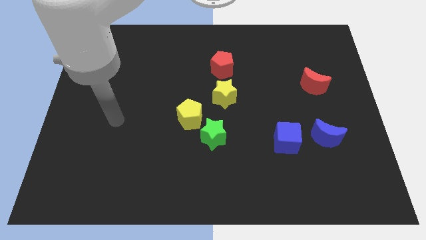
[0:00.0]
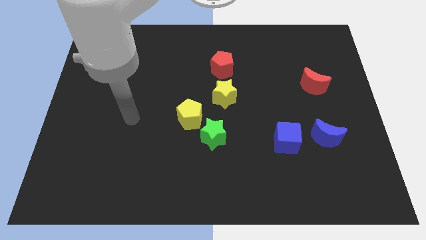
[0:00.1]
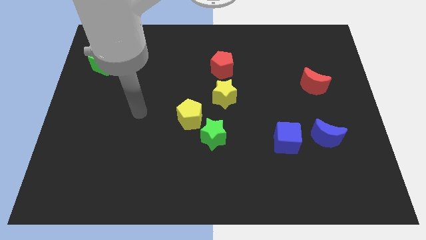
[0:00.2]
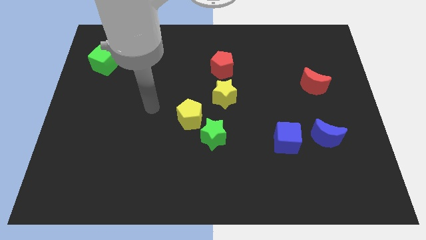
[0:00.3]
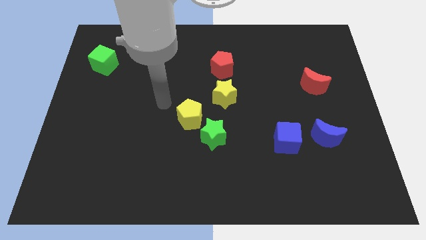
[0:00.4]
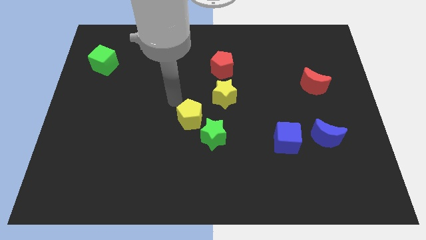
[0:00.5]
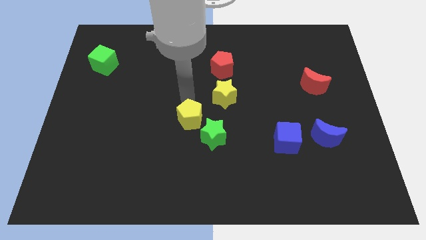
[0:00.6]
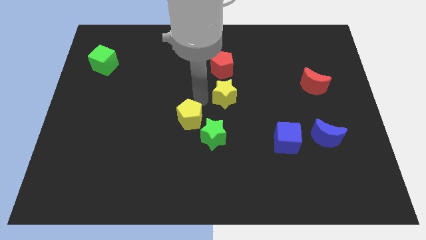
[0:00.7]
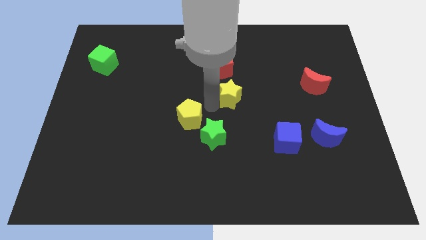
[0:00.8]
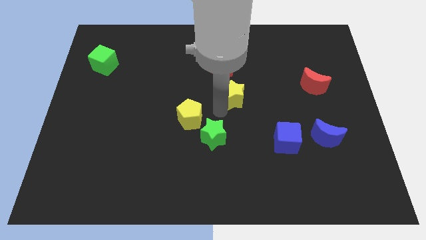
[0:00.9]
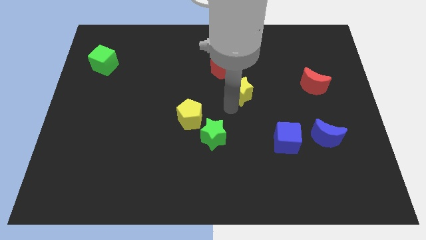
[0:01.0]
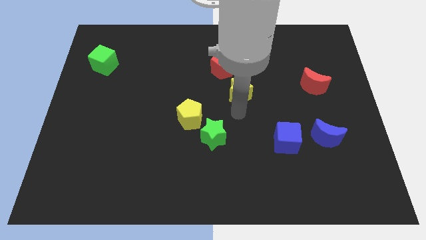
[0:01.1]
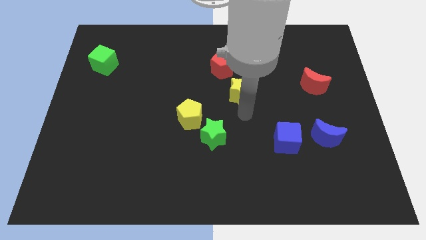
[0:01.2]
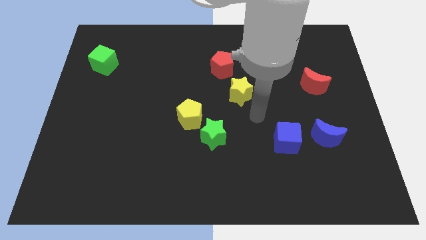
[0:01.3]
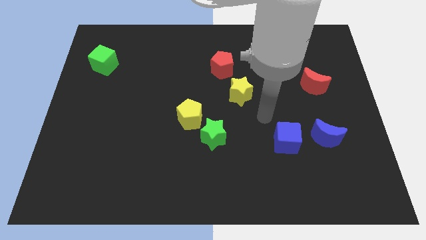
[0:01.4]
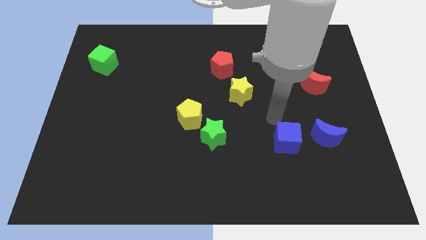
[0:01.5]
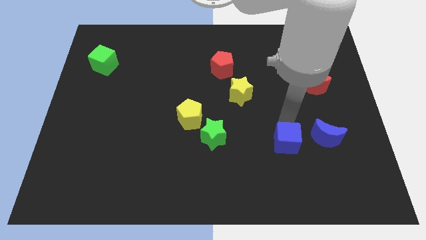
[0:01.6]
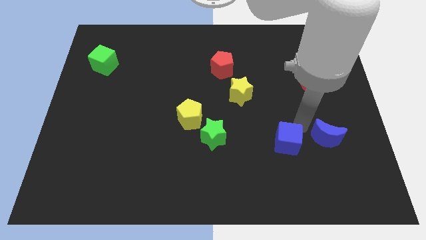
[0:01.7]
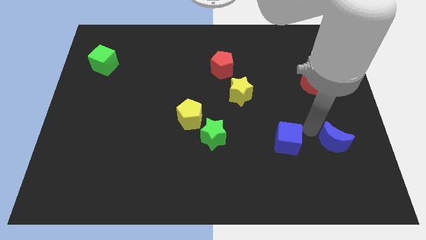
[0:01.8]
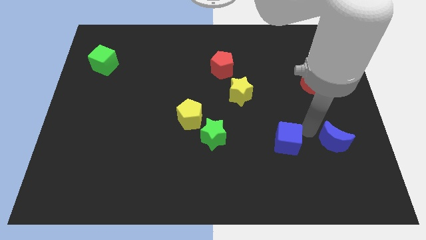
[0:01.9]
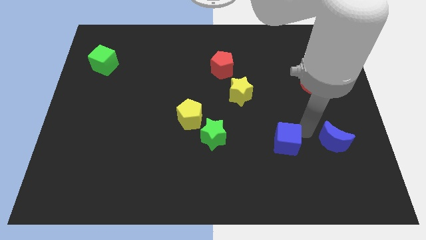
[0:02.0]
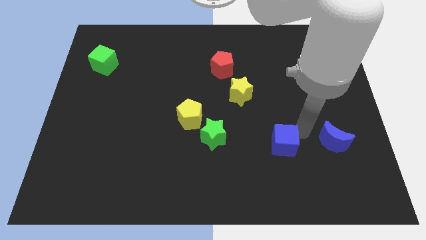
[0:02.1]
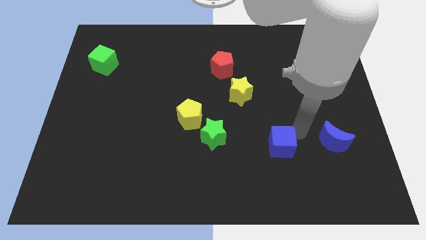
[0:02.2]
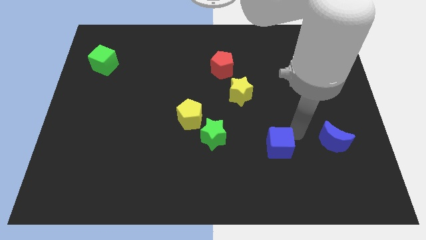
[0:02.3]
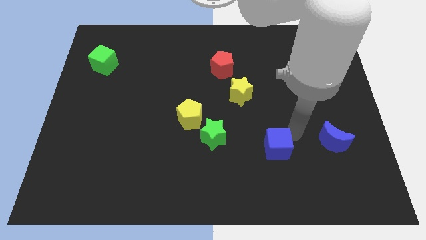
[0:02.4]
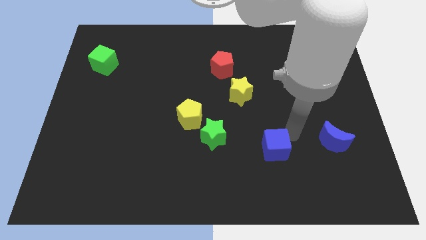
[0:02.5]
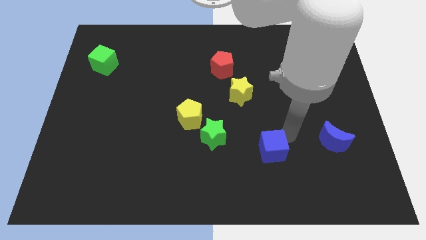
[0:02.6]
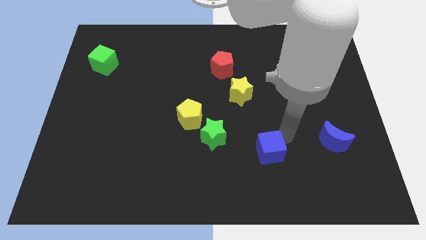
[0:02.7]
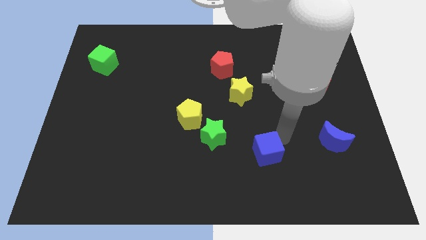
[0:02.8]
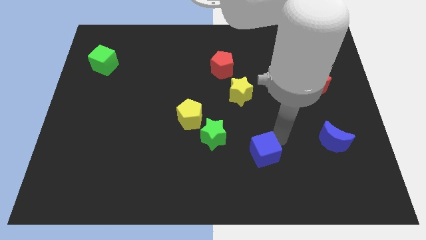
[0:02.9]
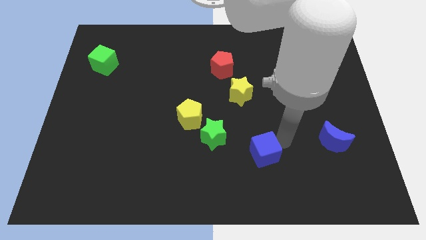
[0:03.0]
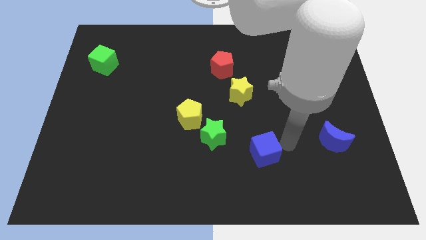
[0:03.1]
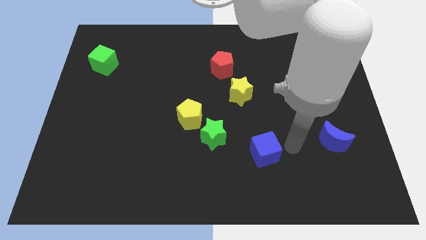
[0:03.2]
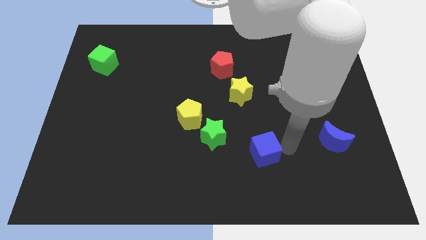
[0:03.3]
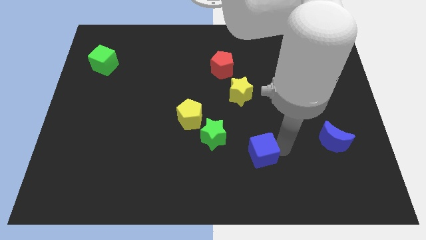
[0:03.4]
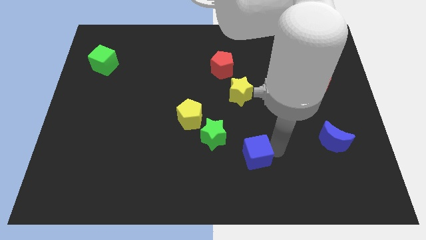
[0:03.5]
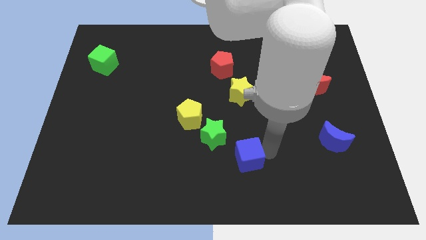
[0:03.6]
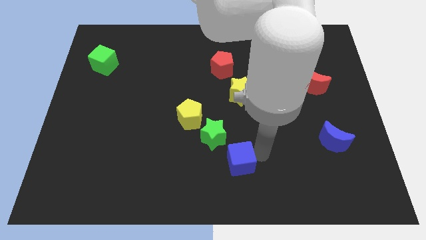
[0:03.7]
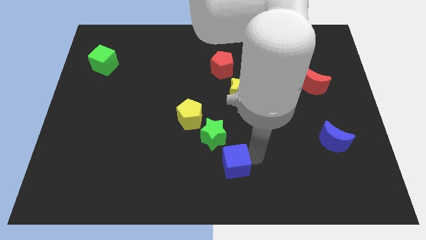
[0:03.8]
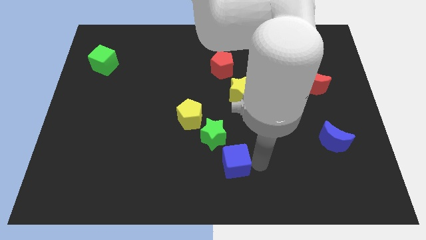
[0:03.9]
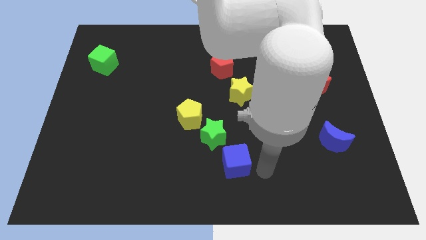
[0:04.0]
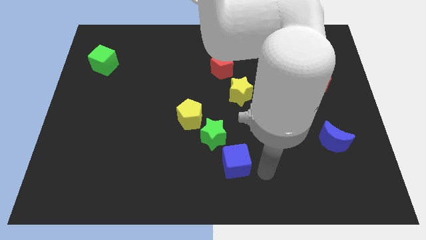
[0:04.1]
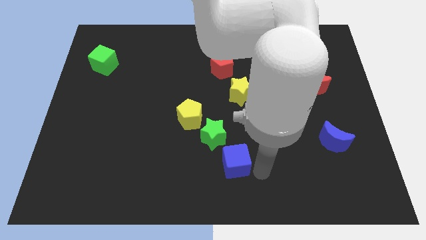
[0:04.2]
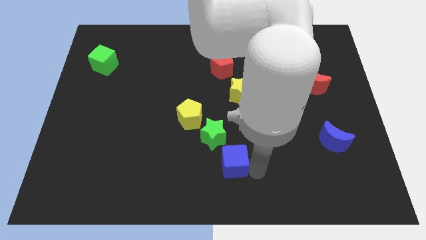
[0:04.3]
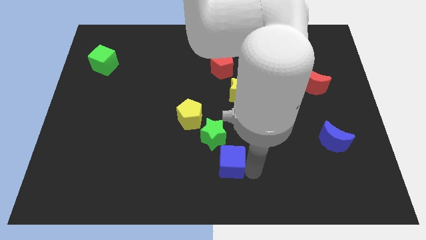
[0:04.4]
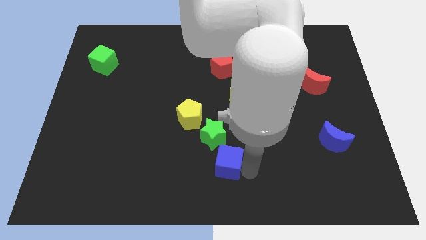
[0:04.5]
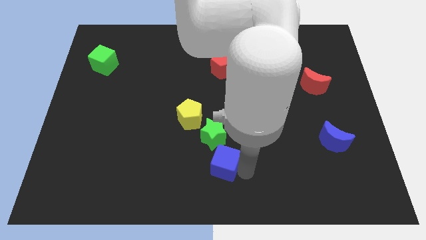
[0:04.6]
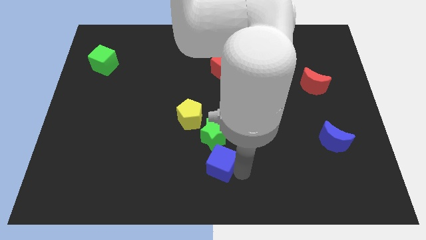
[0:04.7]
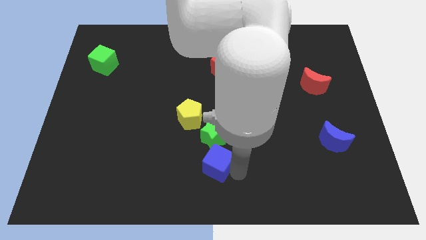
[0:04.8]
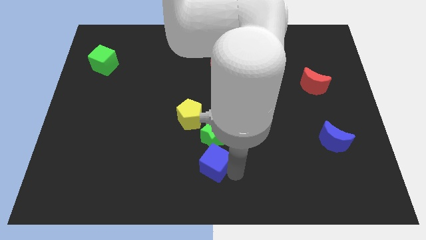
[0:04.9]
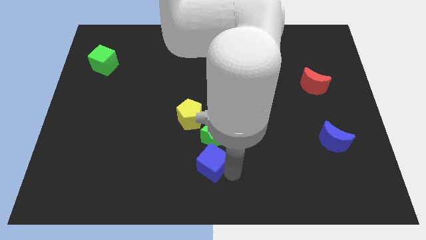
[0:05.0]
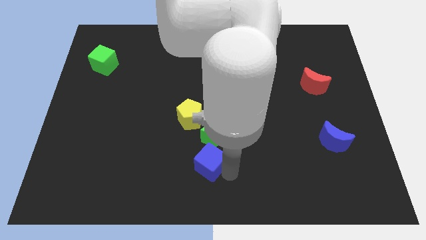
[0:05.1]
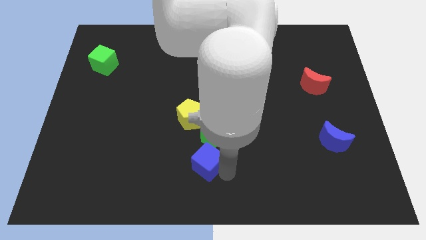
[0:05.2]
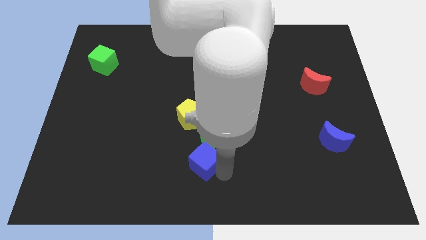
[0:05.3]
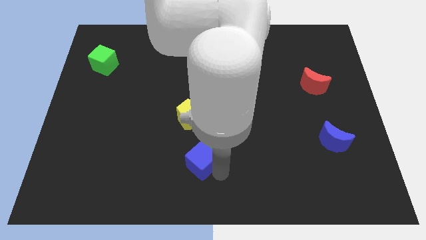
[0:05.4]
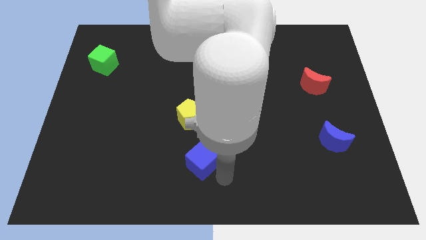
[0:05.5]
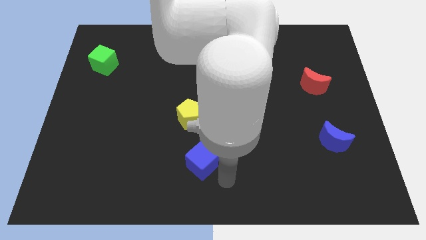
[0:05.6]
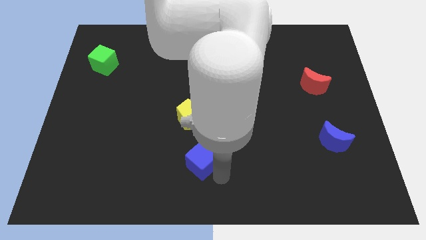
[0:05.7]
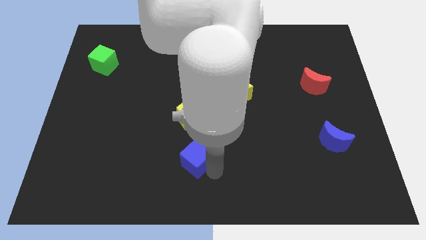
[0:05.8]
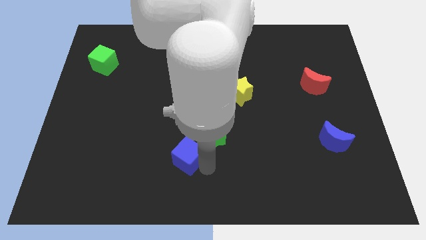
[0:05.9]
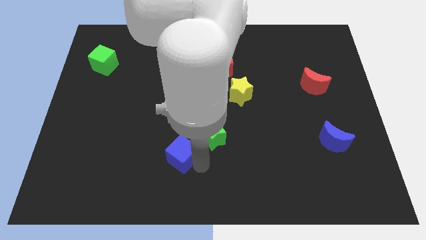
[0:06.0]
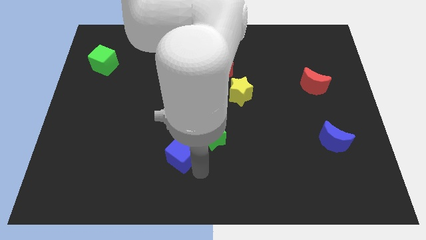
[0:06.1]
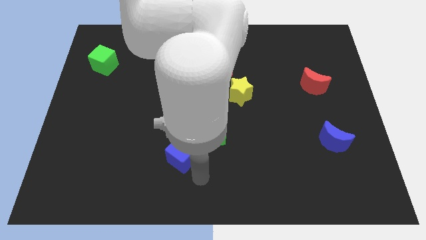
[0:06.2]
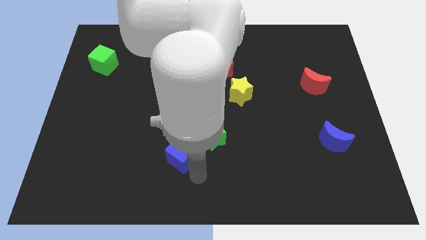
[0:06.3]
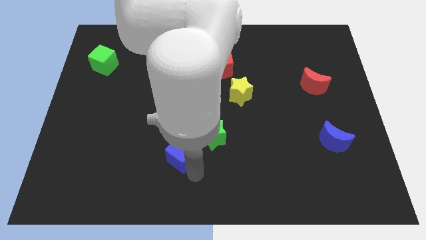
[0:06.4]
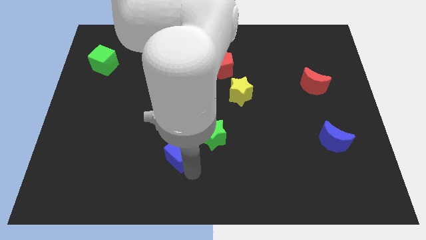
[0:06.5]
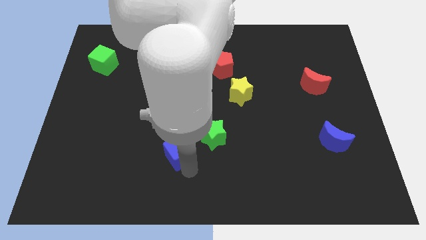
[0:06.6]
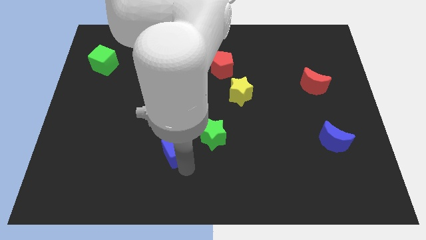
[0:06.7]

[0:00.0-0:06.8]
slide the blue cube diagonally down and to the left of the yellow pentagon

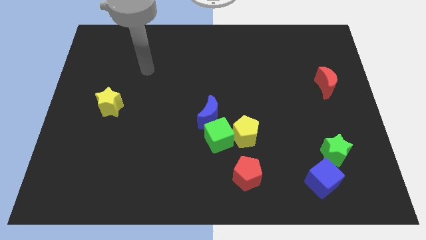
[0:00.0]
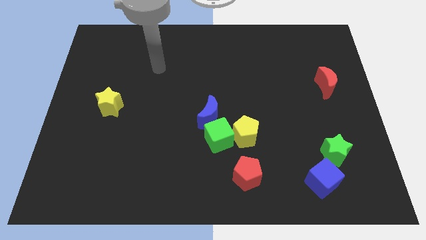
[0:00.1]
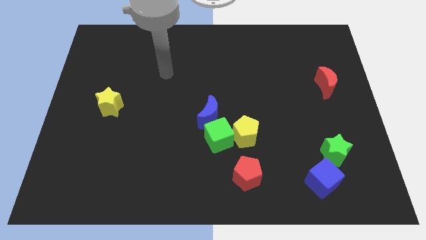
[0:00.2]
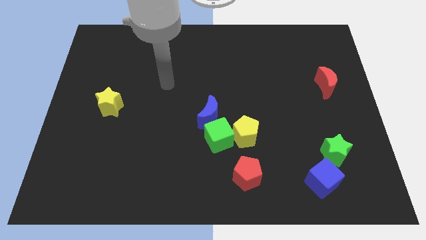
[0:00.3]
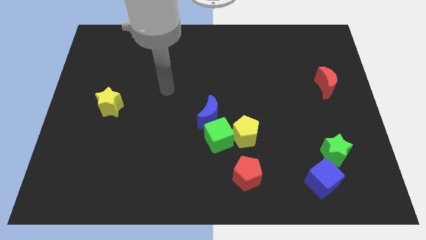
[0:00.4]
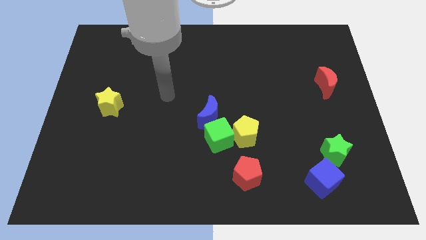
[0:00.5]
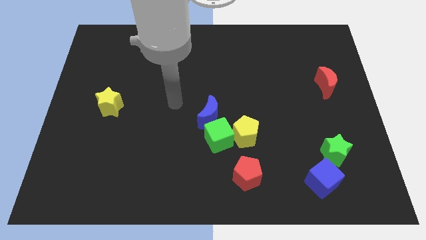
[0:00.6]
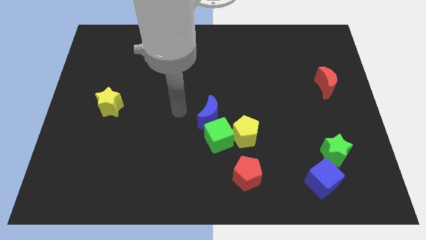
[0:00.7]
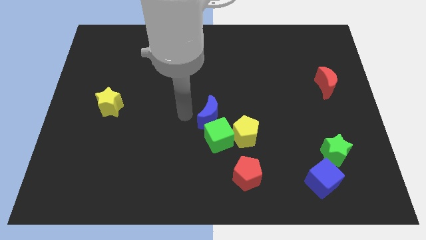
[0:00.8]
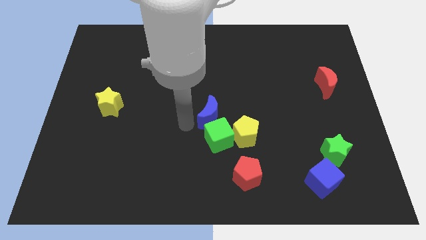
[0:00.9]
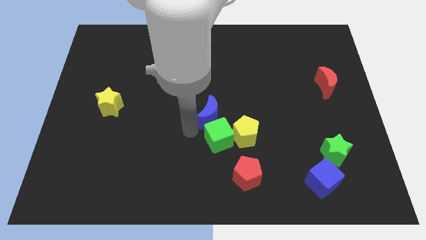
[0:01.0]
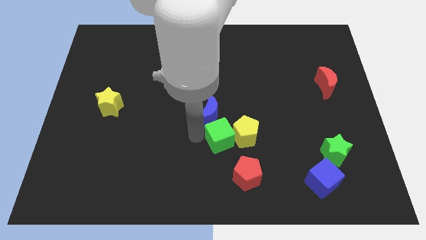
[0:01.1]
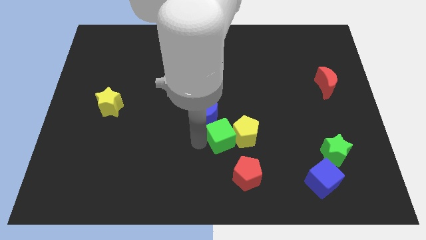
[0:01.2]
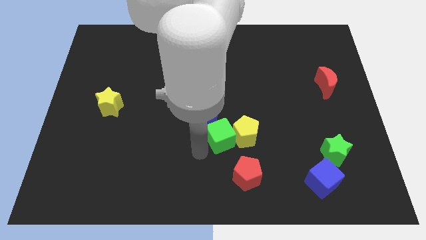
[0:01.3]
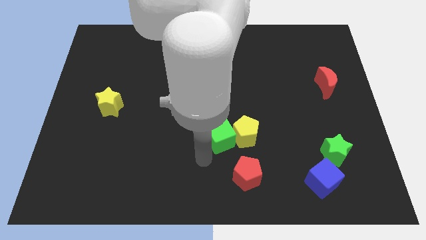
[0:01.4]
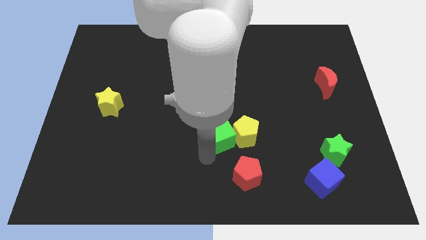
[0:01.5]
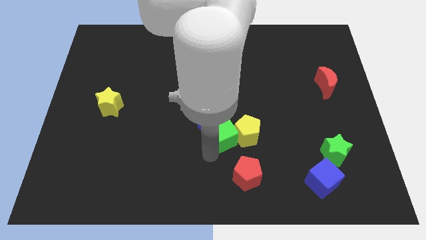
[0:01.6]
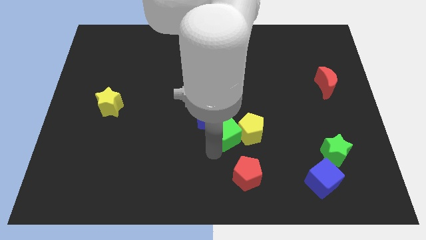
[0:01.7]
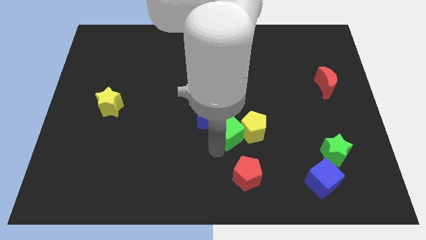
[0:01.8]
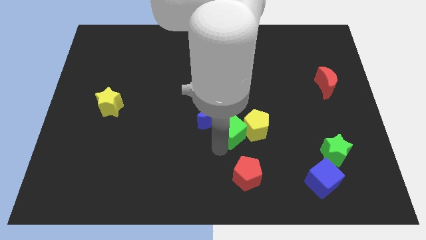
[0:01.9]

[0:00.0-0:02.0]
push the green cube just right of the blue moon
